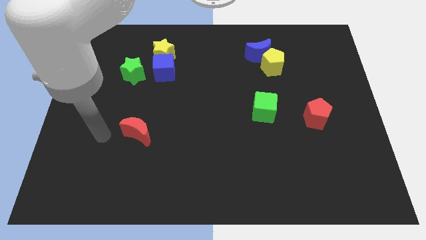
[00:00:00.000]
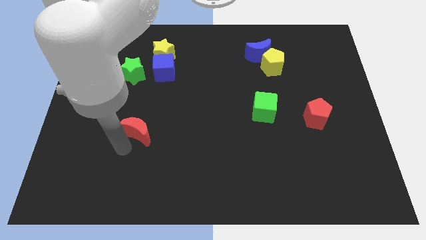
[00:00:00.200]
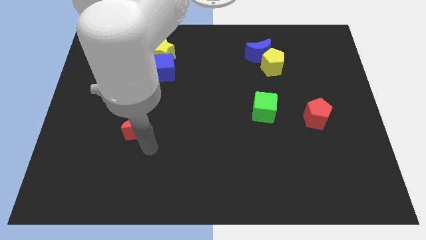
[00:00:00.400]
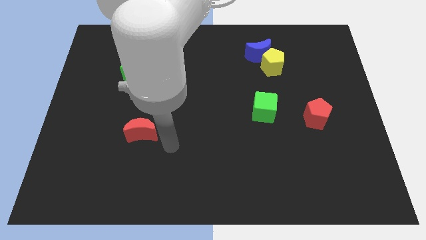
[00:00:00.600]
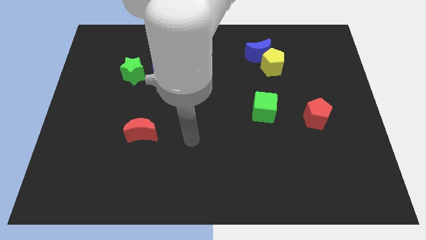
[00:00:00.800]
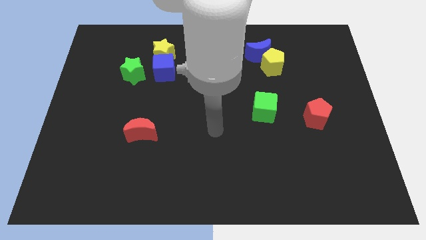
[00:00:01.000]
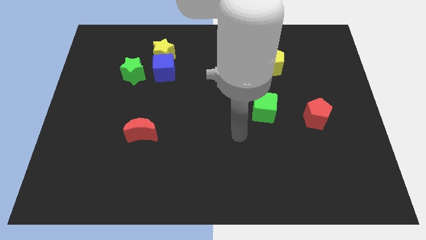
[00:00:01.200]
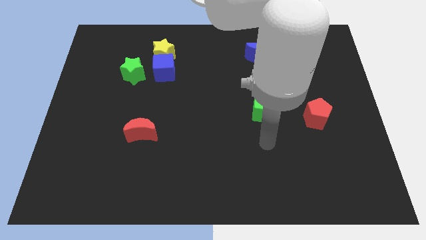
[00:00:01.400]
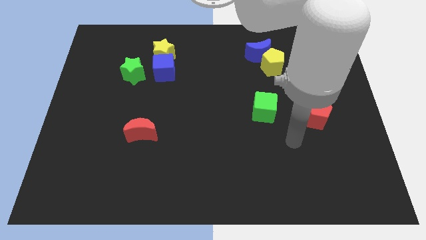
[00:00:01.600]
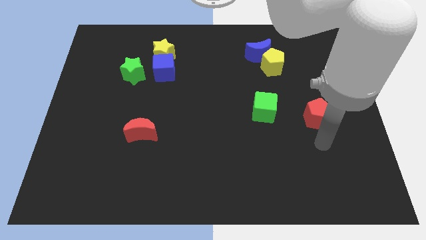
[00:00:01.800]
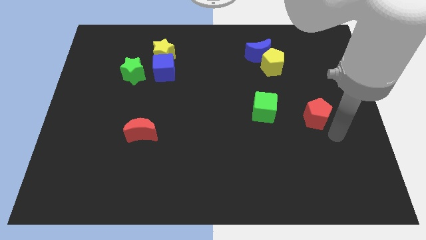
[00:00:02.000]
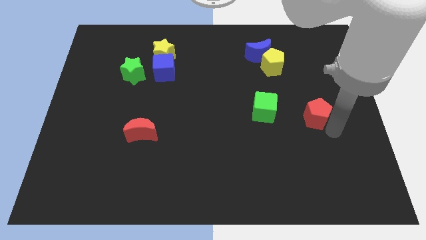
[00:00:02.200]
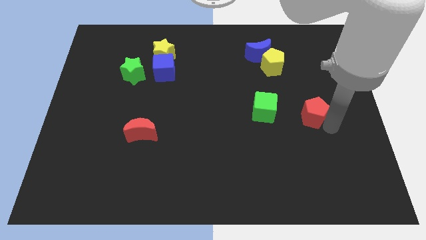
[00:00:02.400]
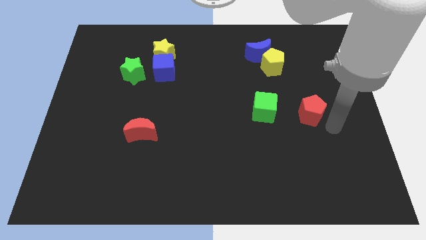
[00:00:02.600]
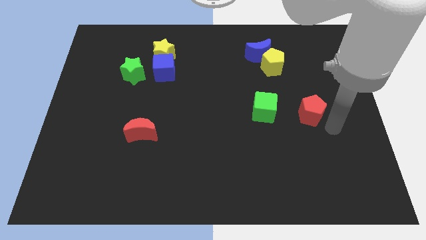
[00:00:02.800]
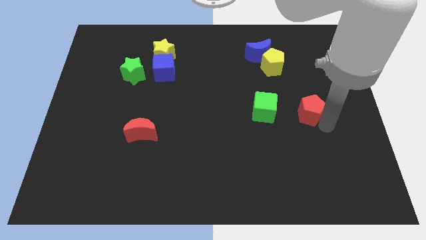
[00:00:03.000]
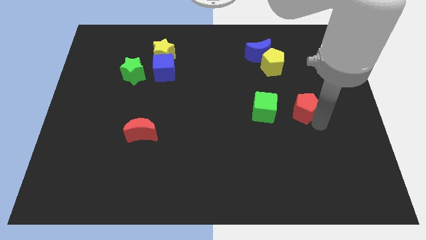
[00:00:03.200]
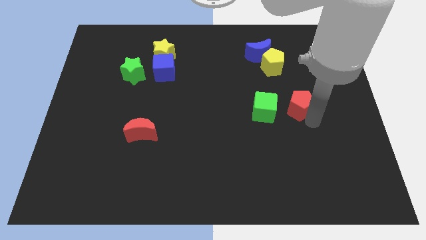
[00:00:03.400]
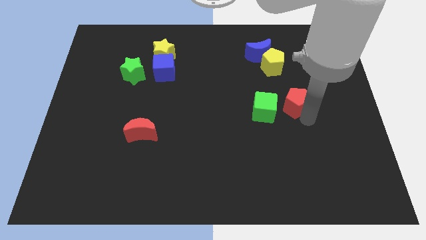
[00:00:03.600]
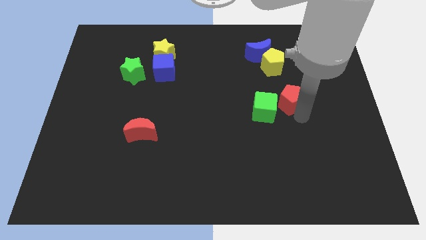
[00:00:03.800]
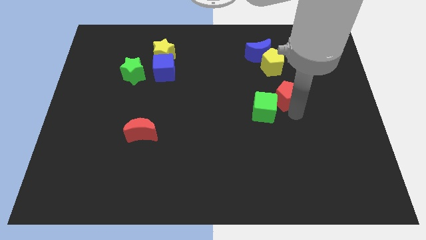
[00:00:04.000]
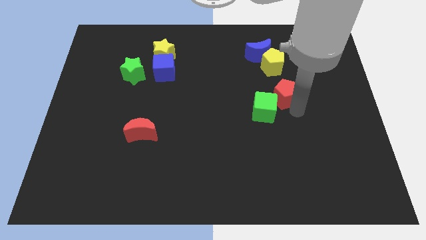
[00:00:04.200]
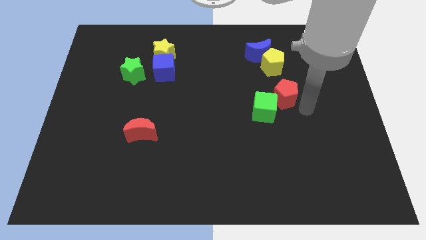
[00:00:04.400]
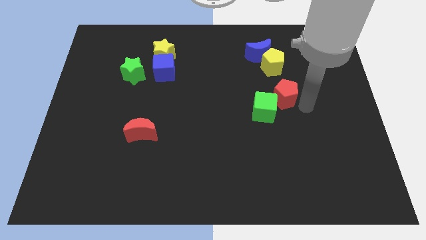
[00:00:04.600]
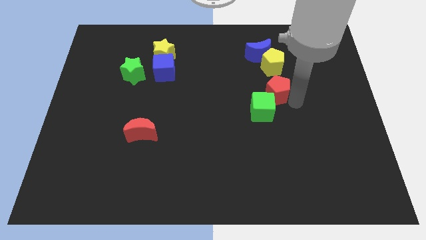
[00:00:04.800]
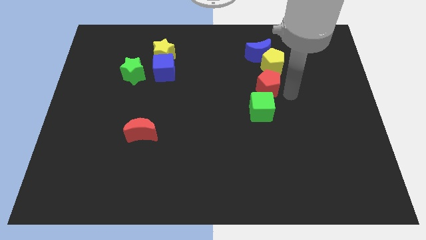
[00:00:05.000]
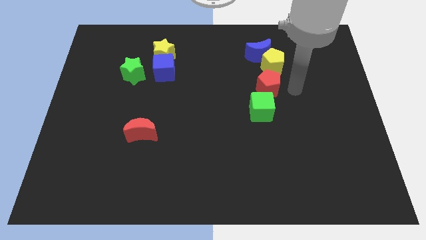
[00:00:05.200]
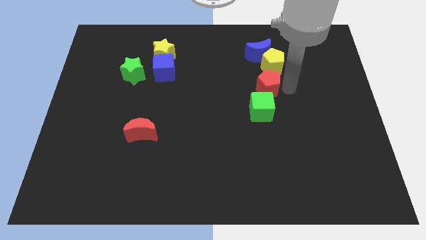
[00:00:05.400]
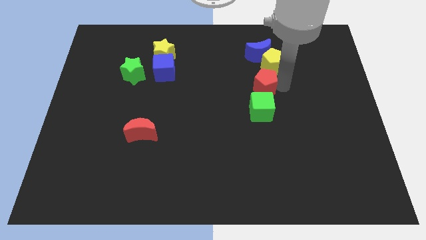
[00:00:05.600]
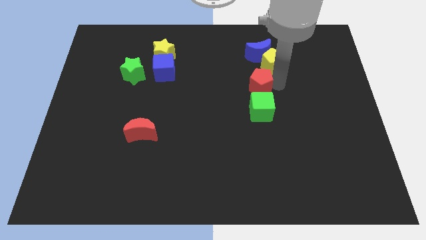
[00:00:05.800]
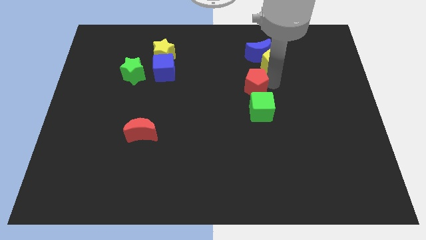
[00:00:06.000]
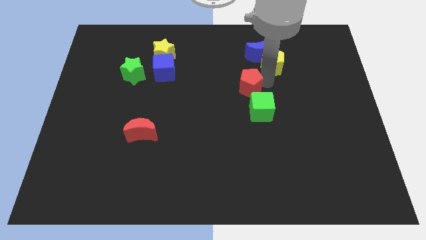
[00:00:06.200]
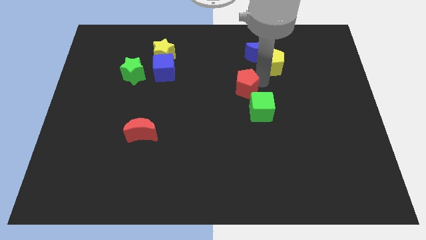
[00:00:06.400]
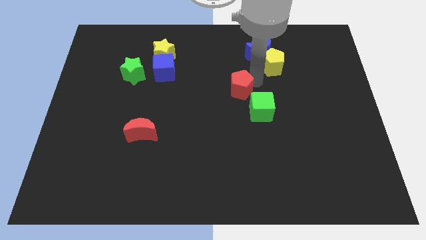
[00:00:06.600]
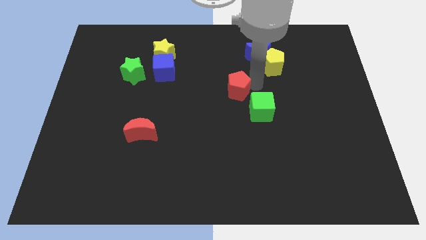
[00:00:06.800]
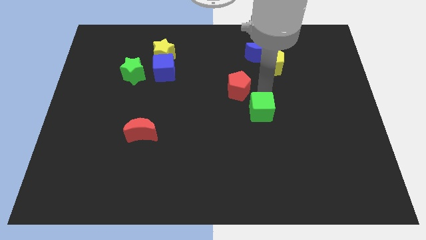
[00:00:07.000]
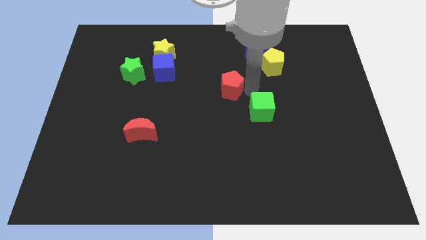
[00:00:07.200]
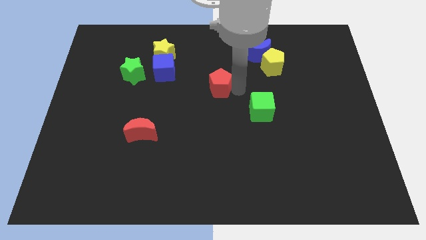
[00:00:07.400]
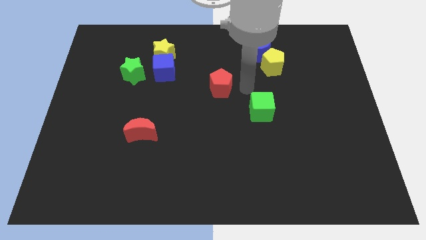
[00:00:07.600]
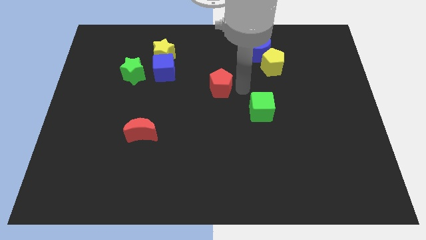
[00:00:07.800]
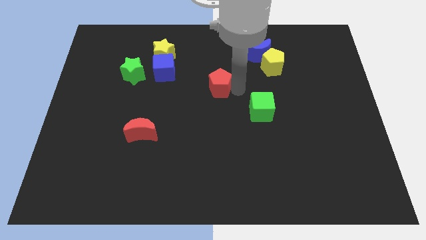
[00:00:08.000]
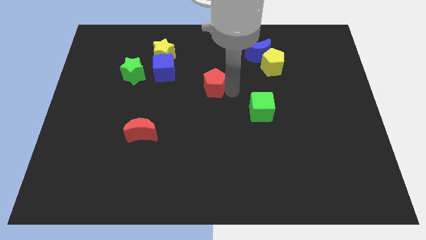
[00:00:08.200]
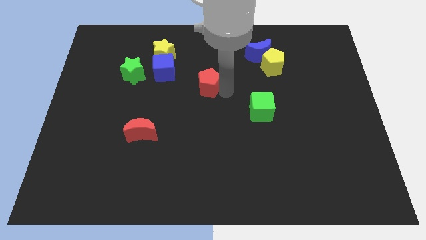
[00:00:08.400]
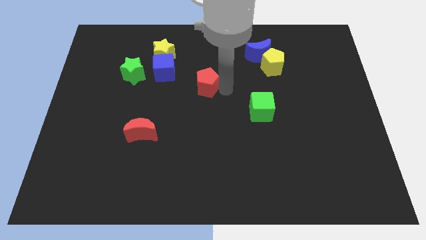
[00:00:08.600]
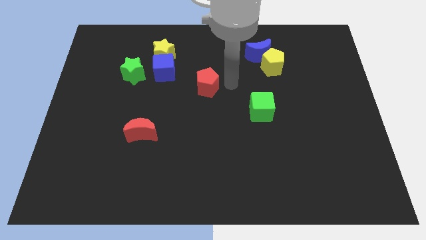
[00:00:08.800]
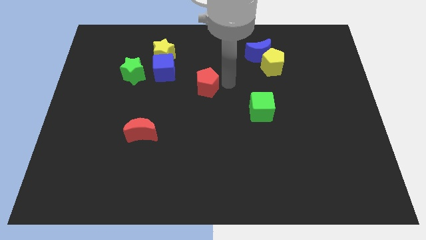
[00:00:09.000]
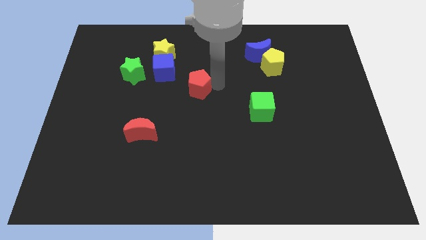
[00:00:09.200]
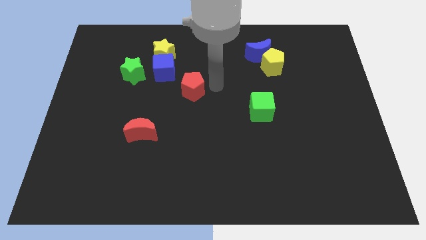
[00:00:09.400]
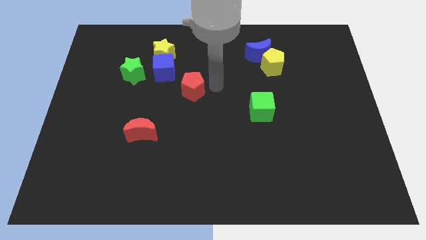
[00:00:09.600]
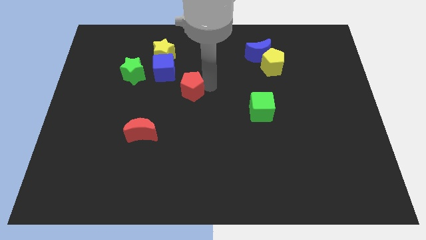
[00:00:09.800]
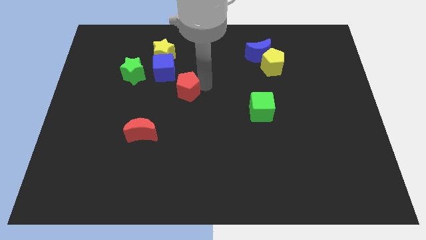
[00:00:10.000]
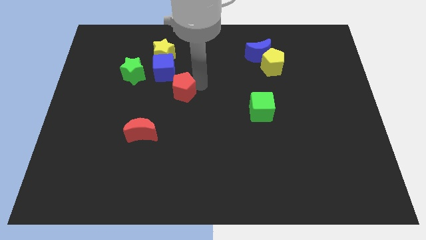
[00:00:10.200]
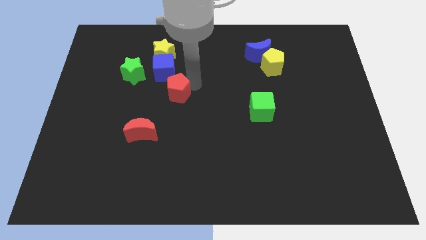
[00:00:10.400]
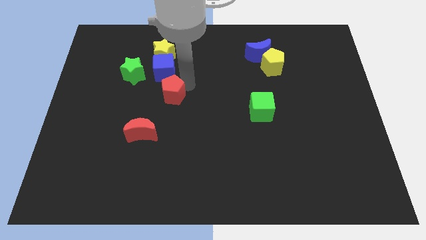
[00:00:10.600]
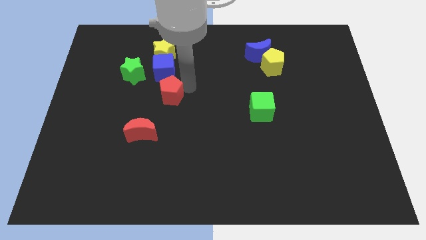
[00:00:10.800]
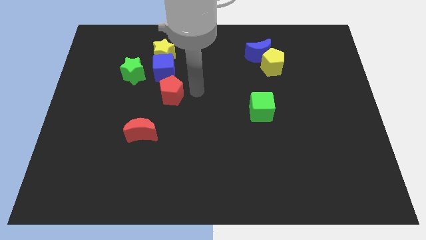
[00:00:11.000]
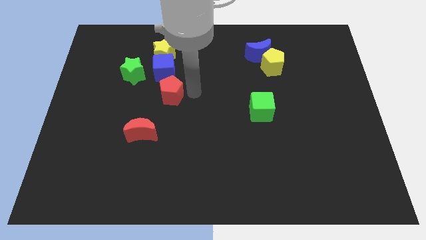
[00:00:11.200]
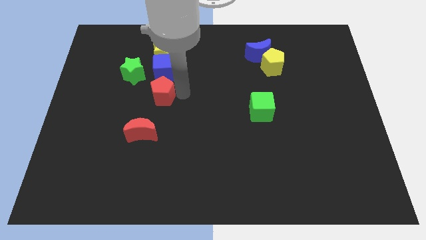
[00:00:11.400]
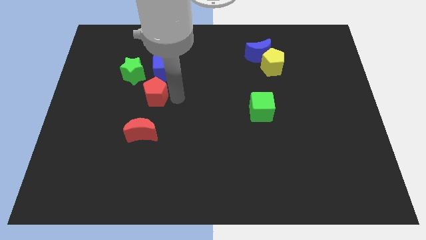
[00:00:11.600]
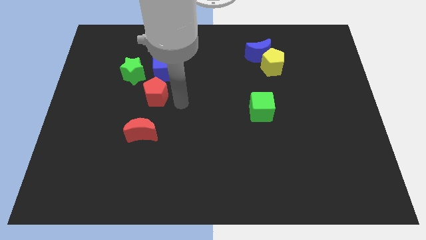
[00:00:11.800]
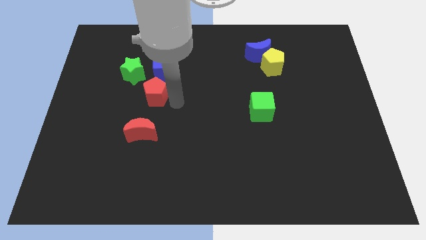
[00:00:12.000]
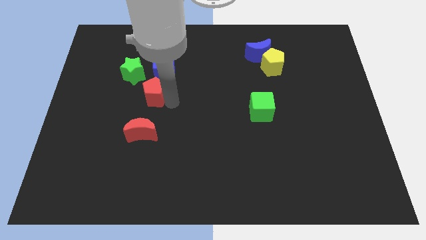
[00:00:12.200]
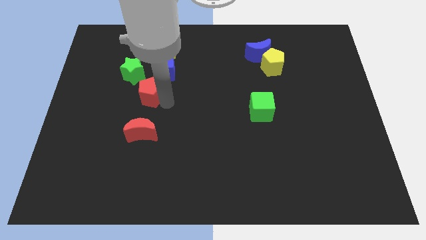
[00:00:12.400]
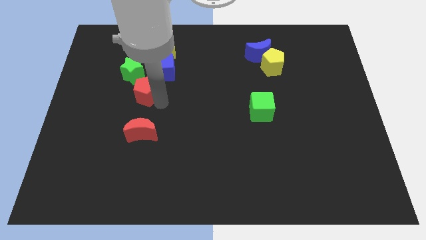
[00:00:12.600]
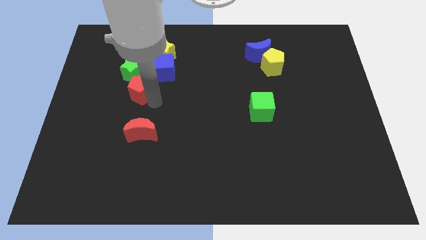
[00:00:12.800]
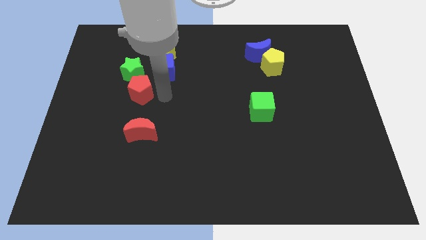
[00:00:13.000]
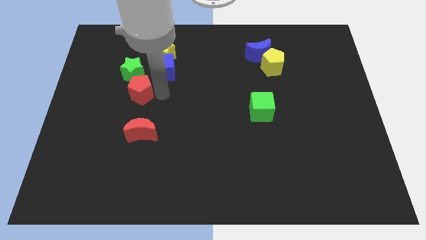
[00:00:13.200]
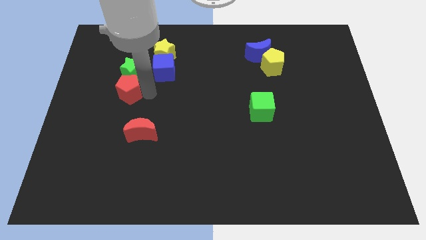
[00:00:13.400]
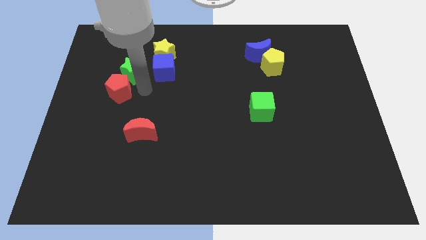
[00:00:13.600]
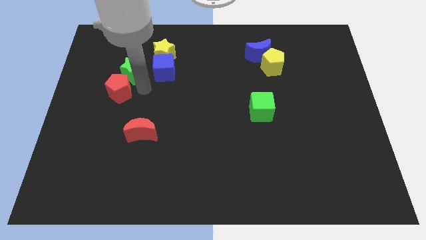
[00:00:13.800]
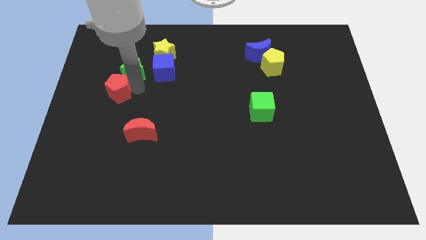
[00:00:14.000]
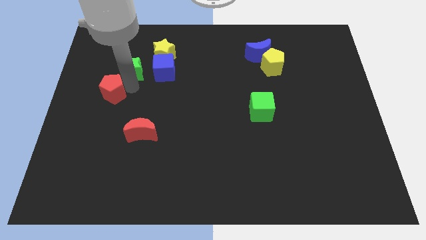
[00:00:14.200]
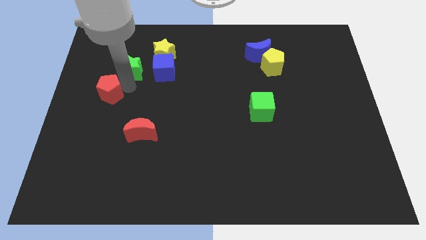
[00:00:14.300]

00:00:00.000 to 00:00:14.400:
slide the red pentagon to the center left
